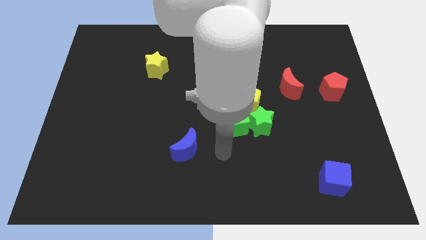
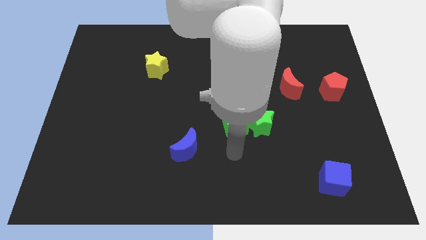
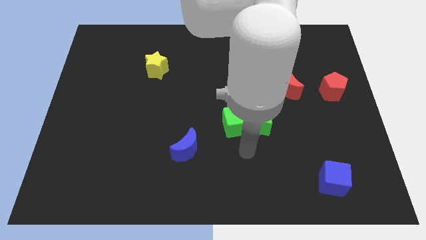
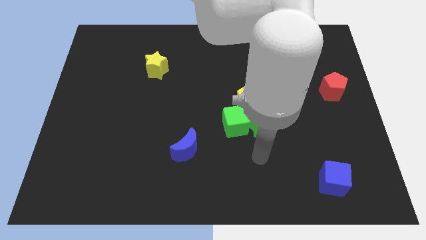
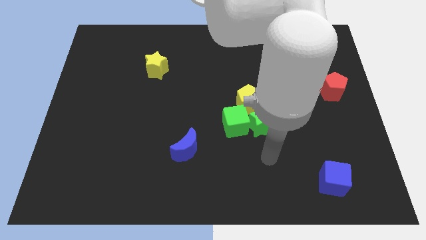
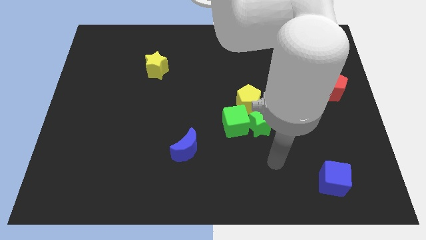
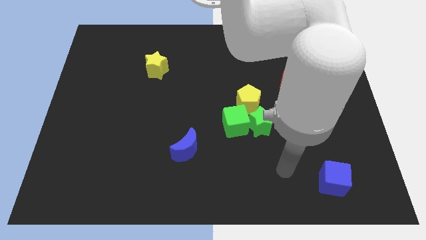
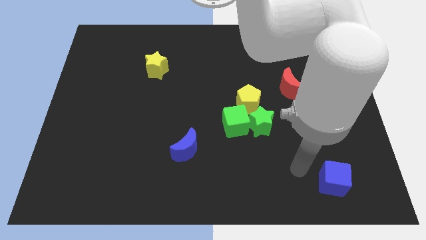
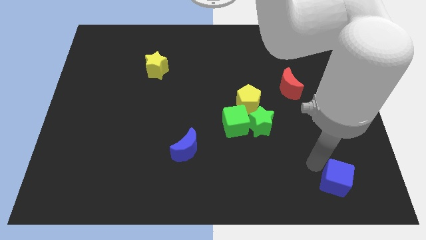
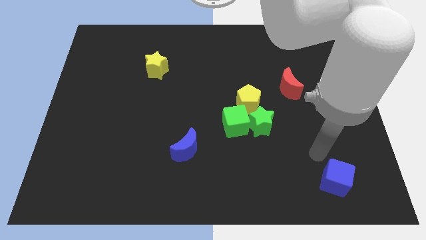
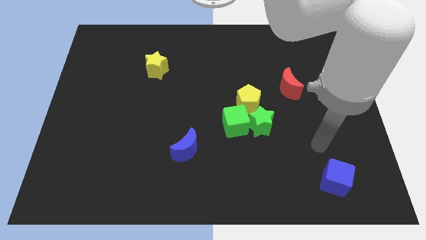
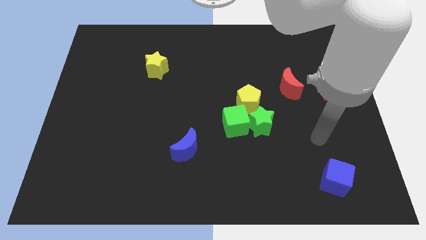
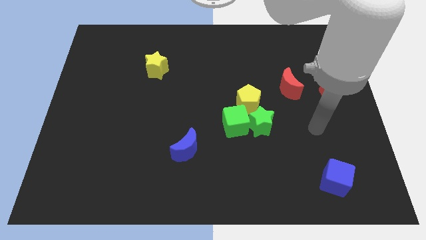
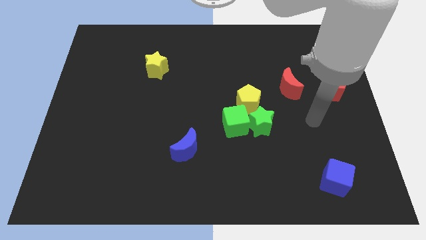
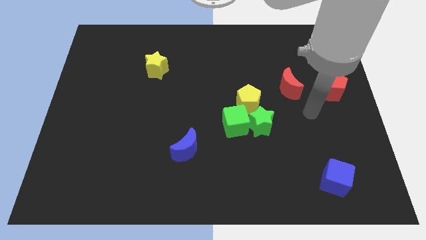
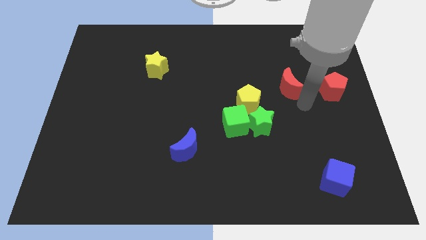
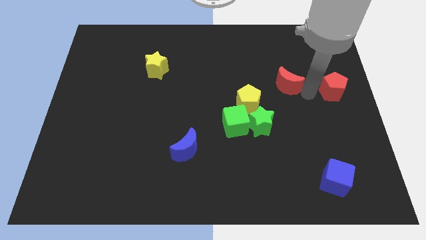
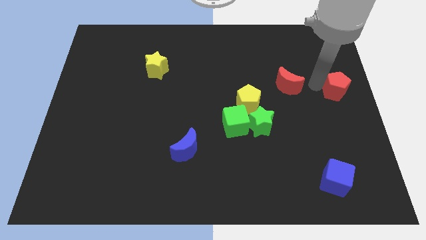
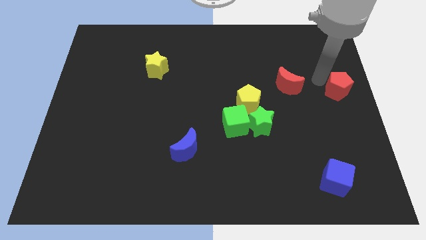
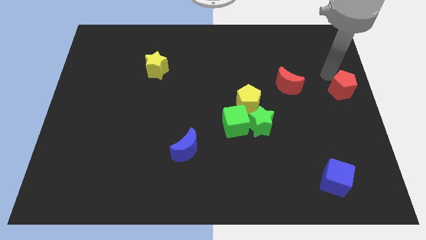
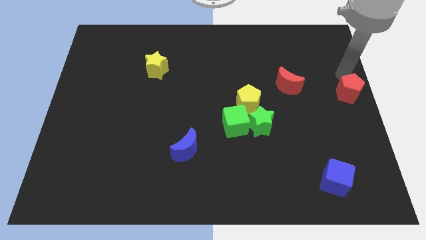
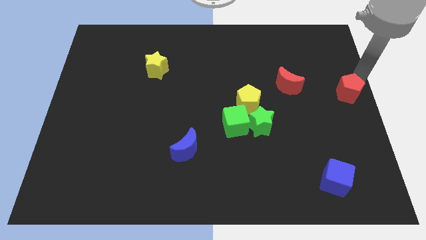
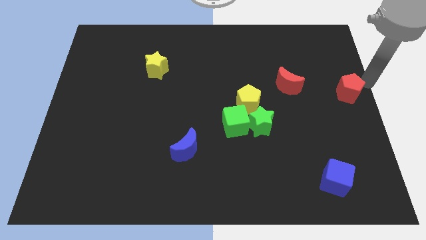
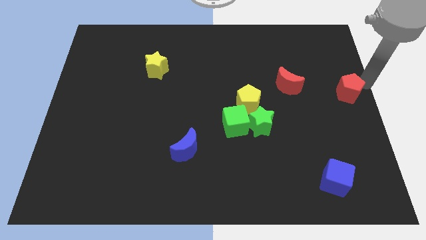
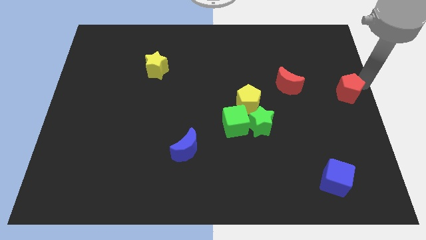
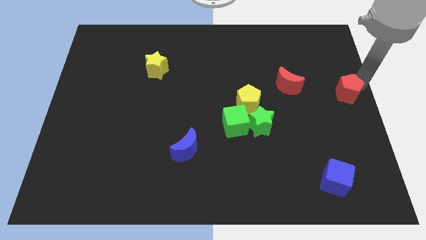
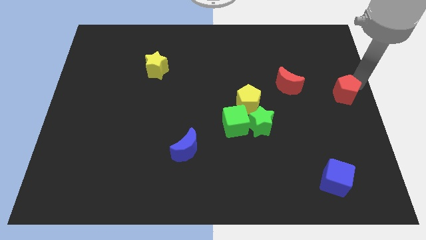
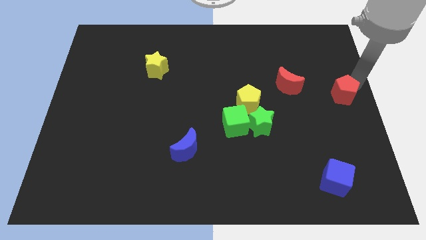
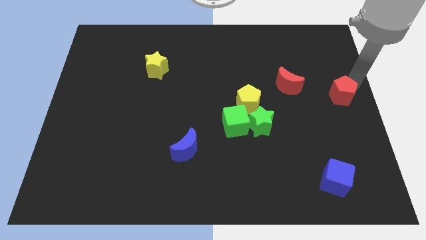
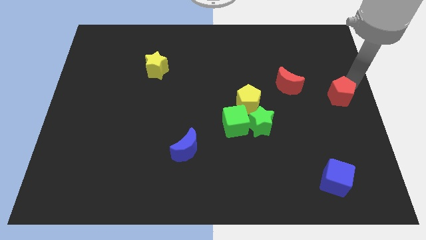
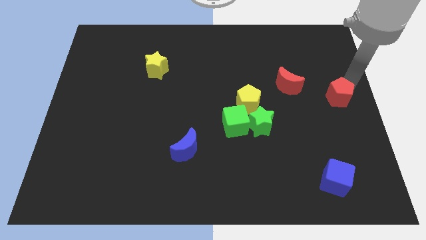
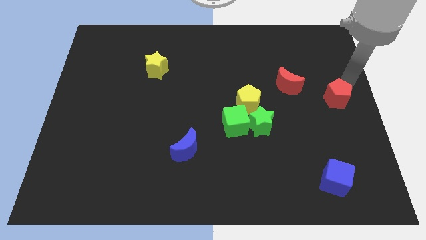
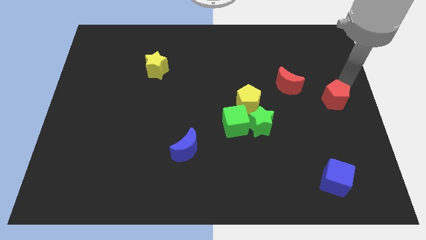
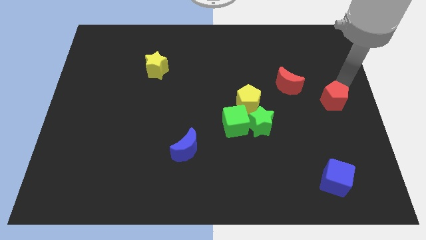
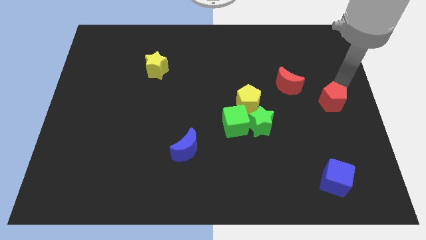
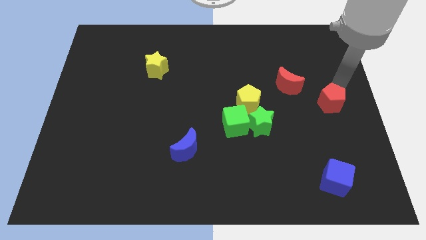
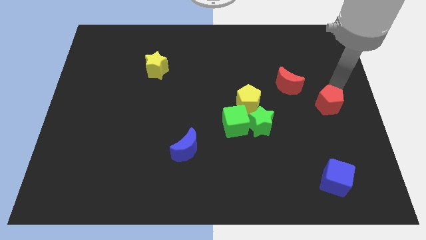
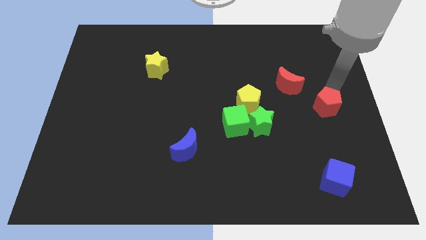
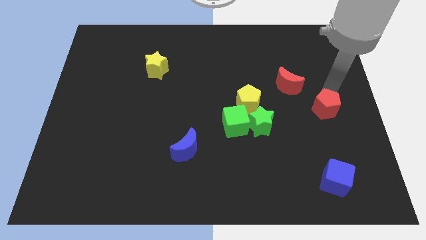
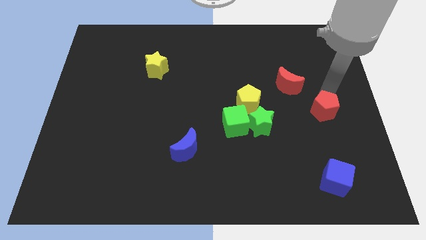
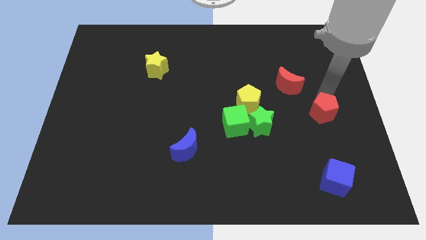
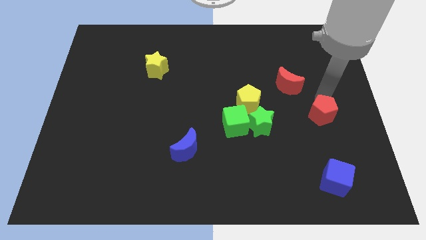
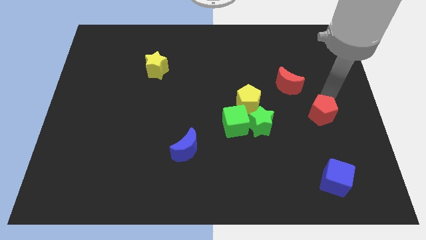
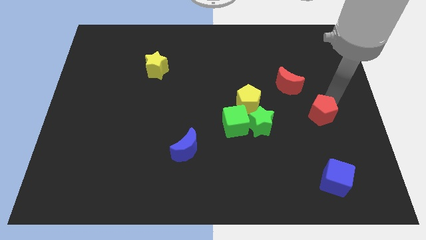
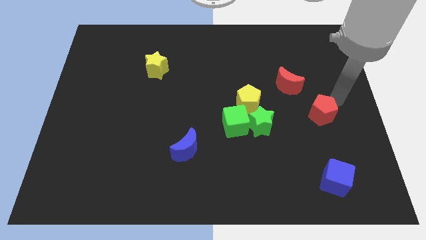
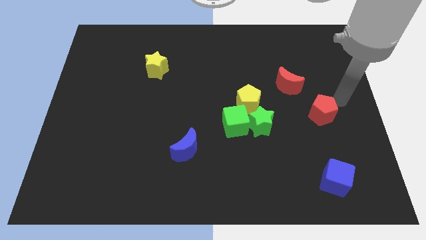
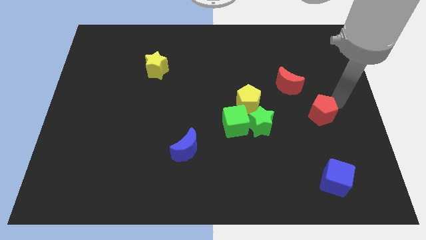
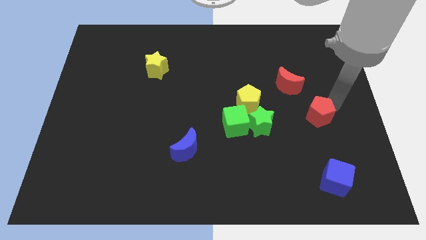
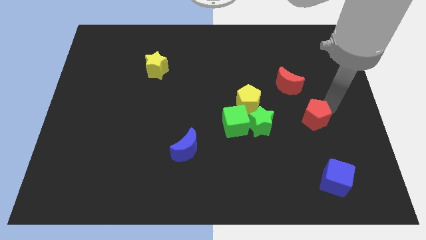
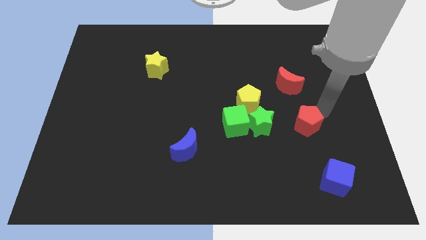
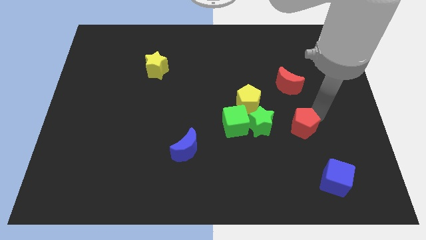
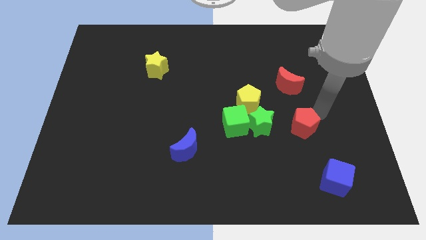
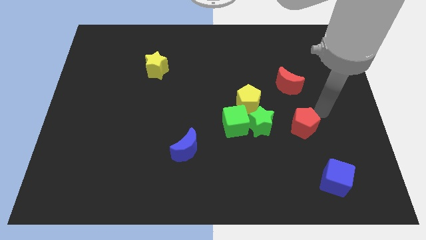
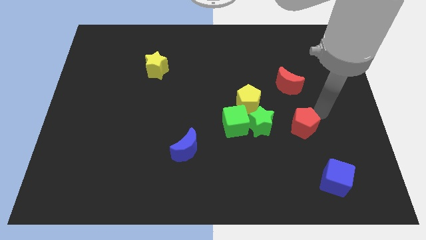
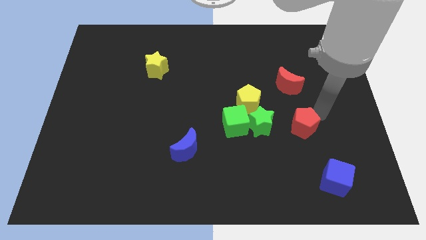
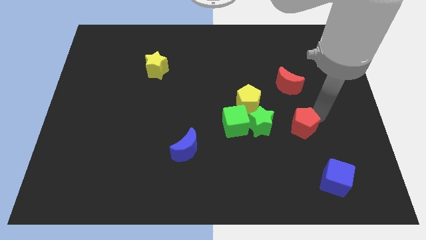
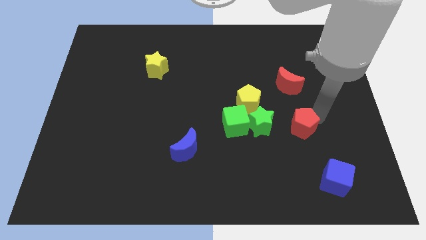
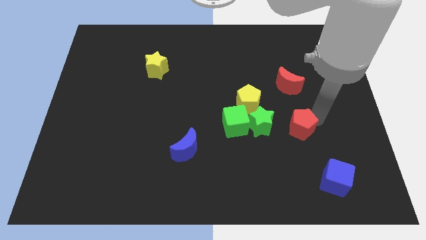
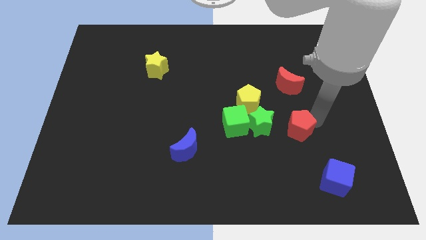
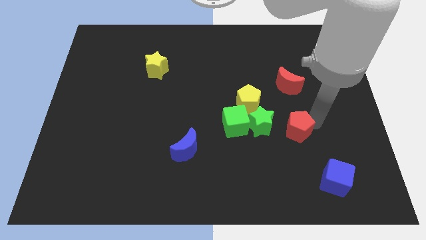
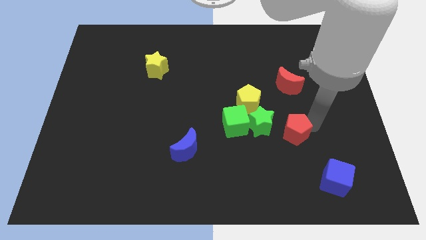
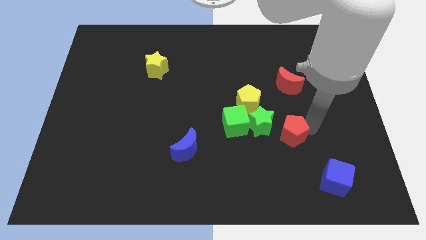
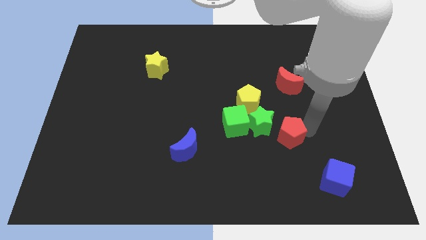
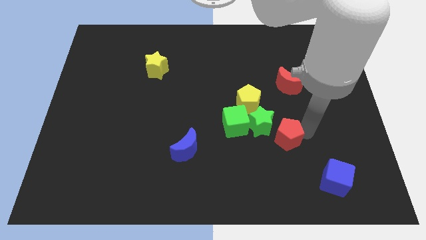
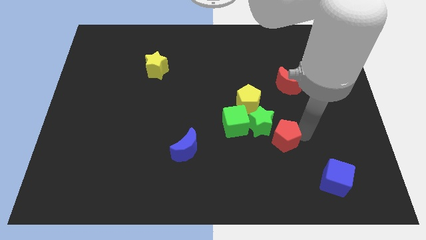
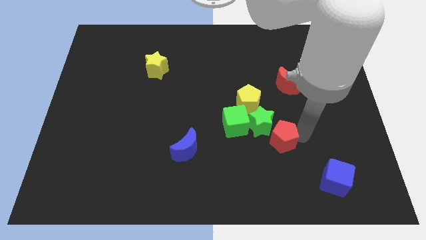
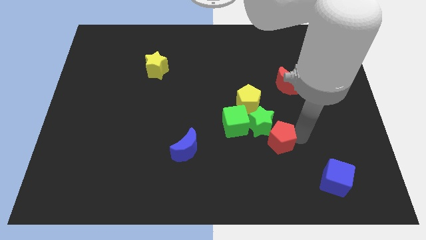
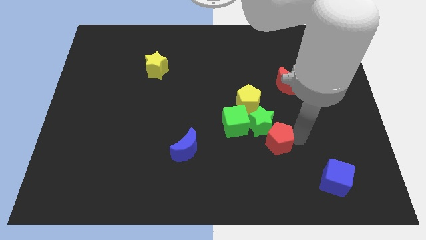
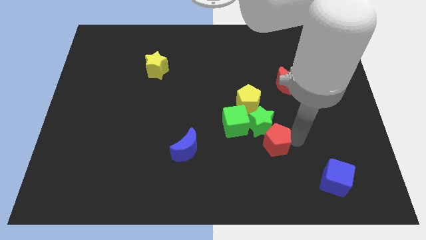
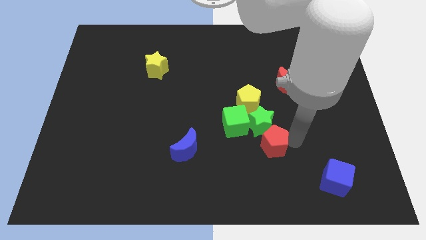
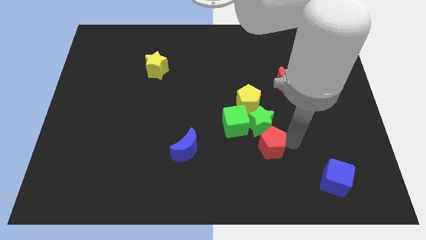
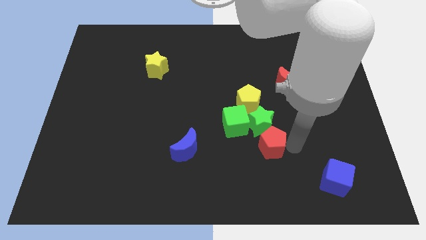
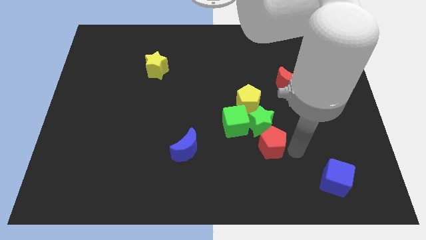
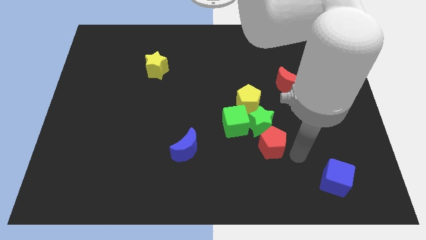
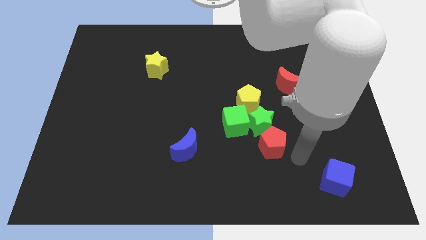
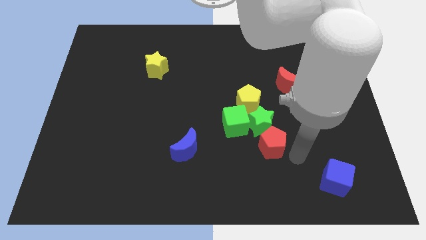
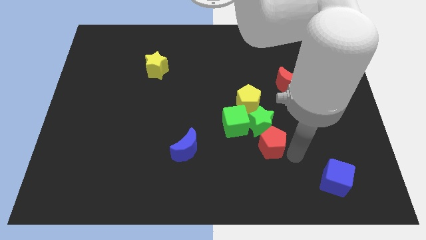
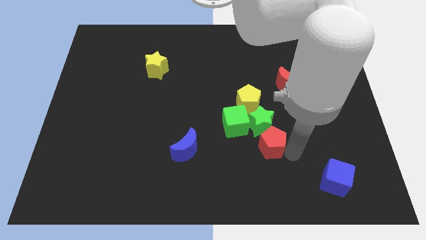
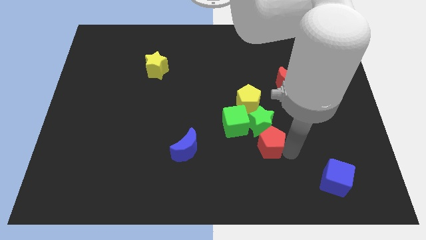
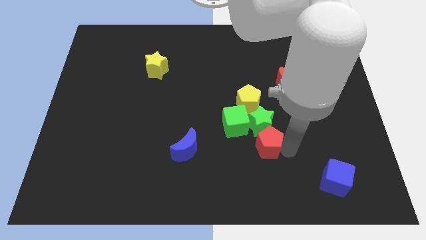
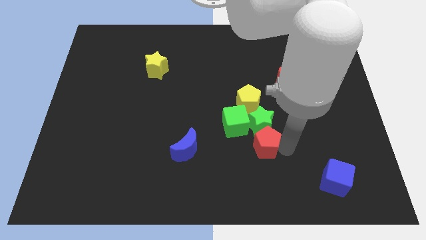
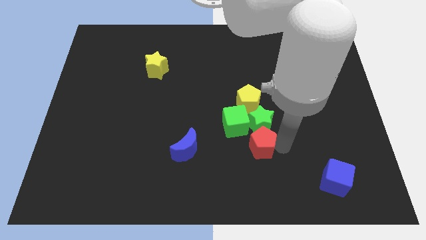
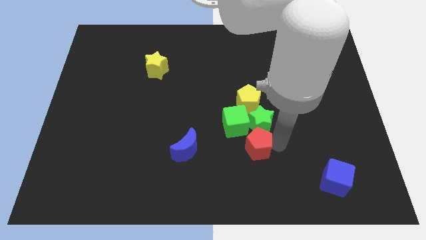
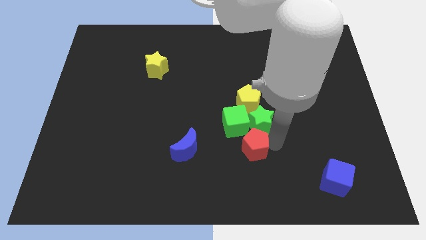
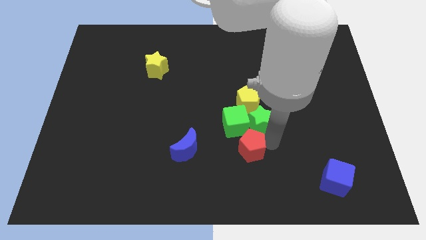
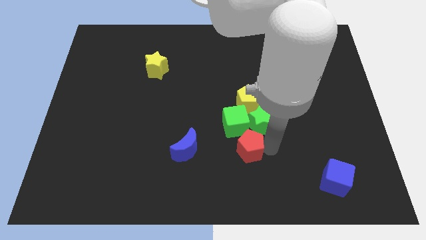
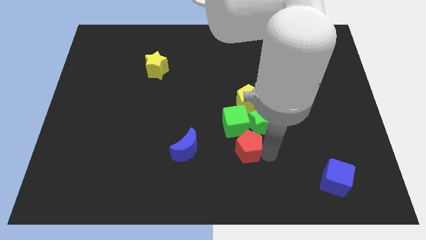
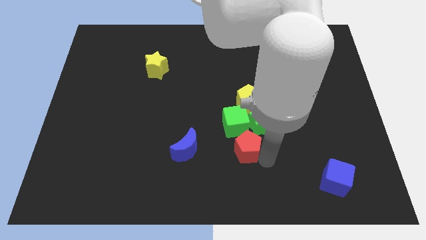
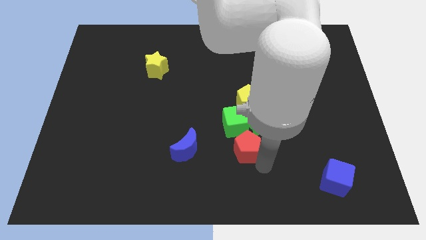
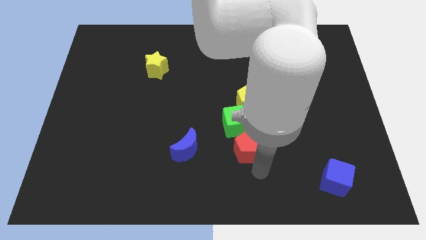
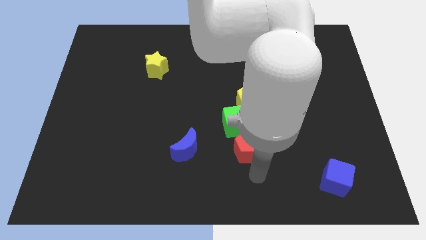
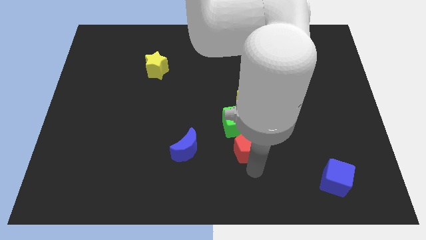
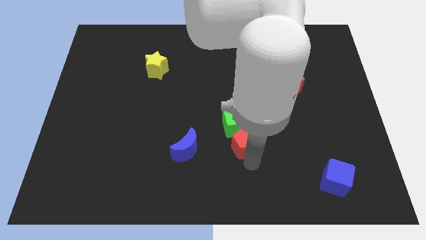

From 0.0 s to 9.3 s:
push the red pentagon next to the green cube
